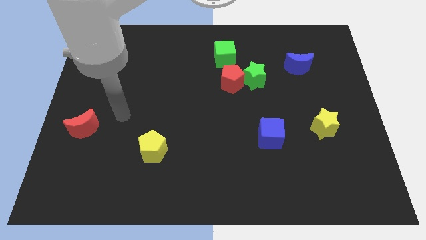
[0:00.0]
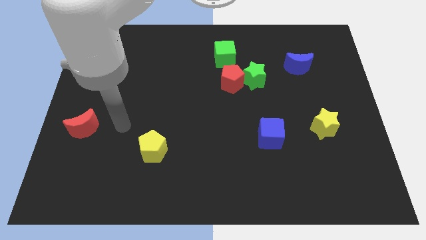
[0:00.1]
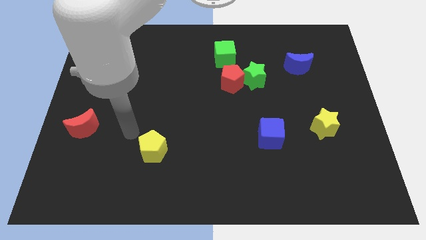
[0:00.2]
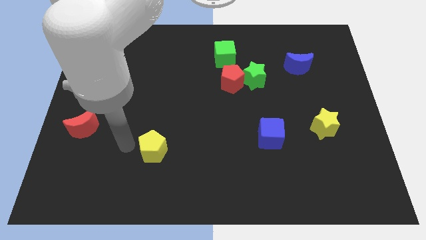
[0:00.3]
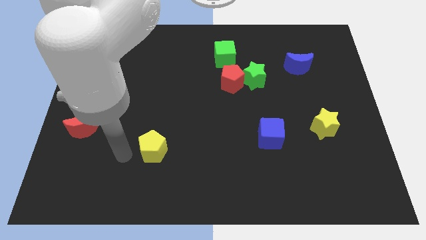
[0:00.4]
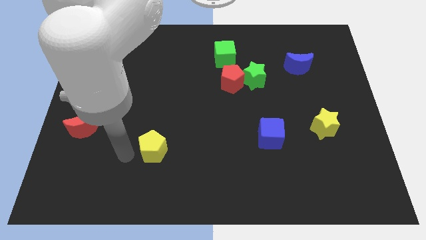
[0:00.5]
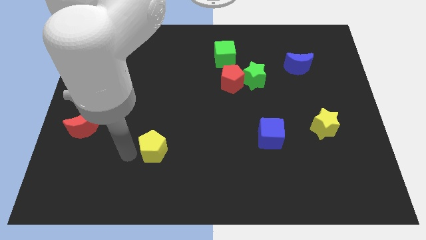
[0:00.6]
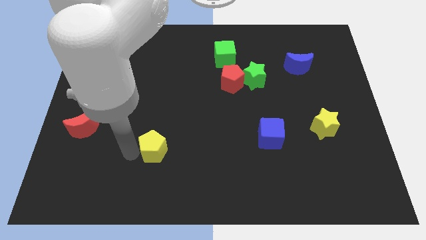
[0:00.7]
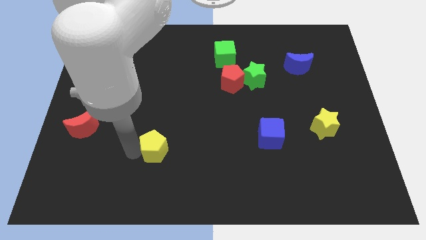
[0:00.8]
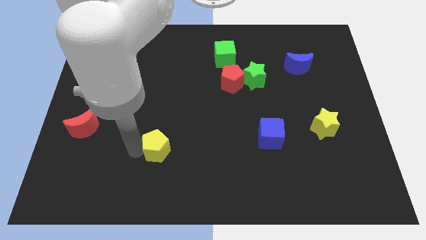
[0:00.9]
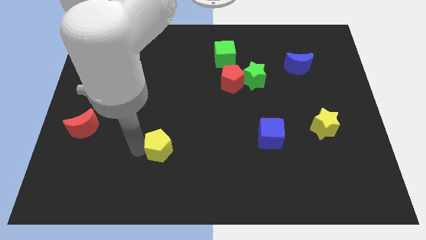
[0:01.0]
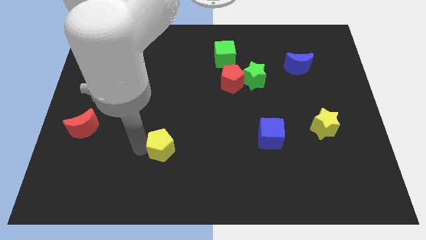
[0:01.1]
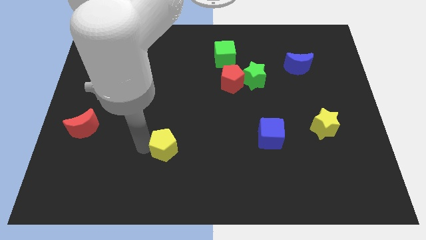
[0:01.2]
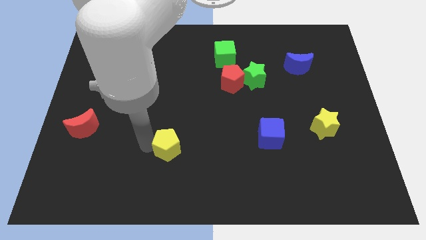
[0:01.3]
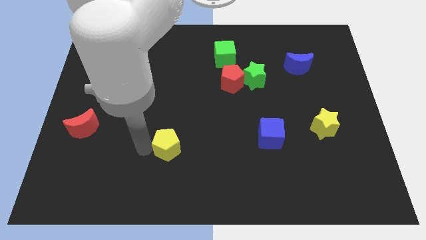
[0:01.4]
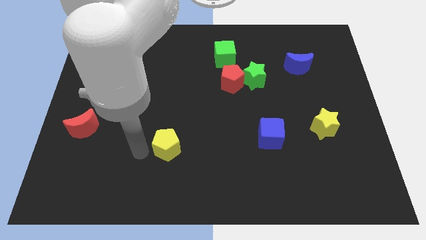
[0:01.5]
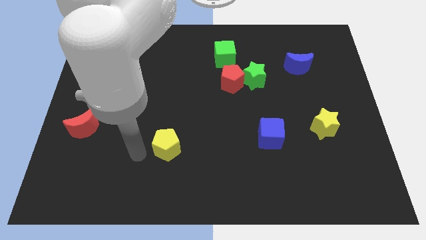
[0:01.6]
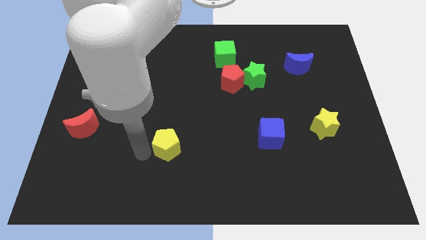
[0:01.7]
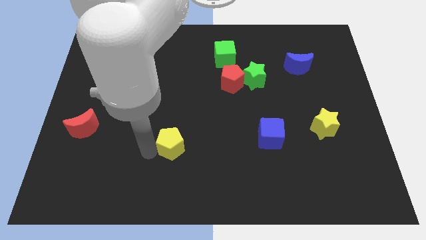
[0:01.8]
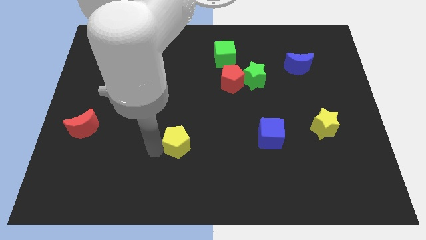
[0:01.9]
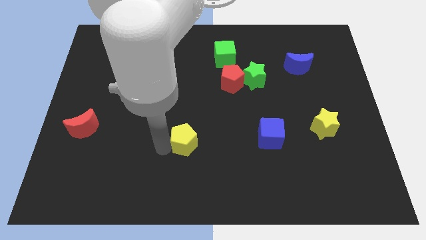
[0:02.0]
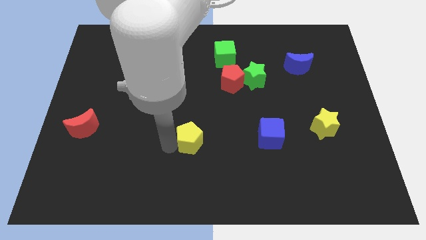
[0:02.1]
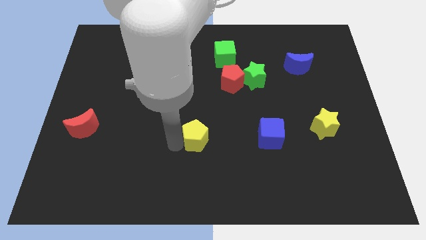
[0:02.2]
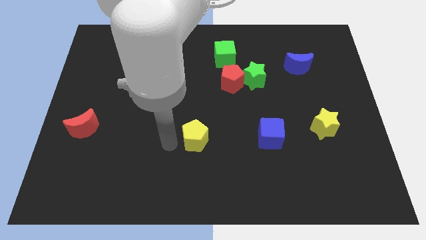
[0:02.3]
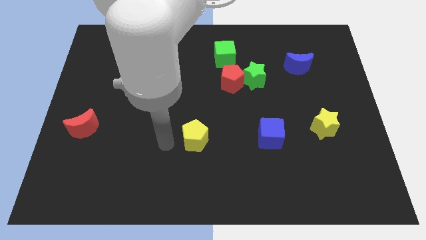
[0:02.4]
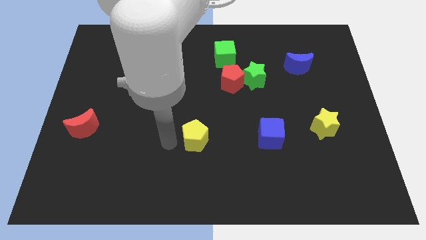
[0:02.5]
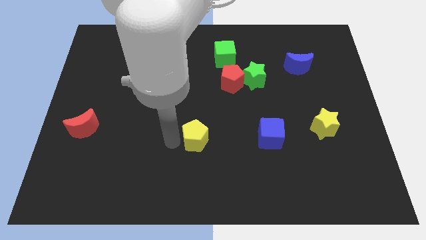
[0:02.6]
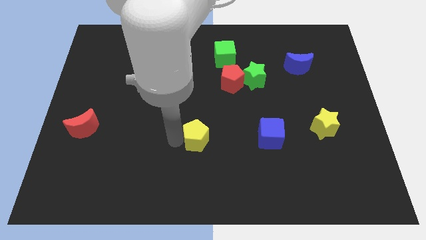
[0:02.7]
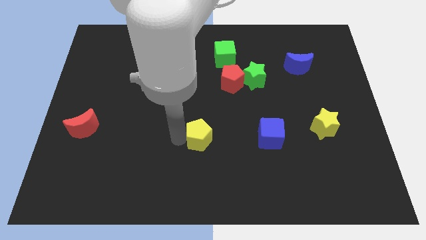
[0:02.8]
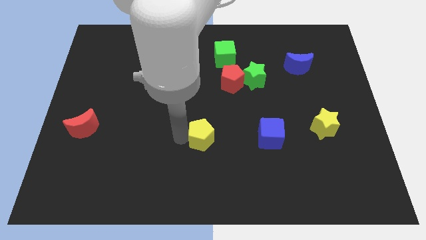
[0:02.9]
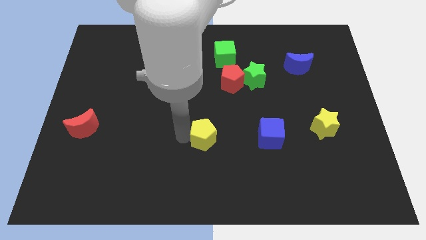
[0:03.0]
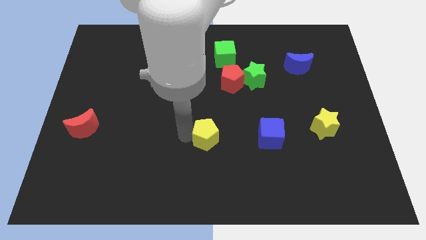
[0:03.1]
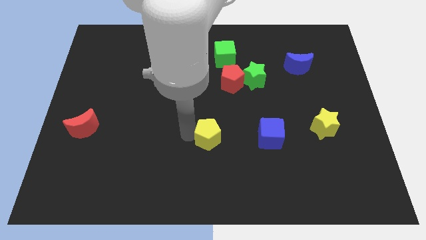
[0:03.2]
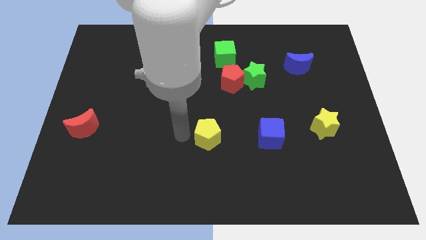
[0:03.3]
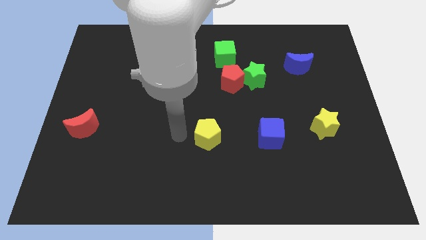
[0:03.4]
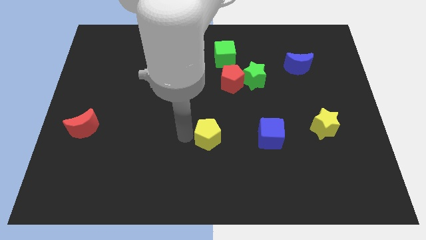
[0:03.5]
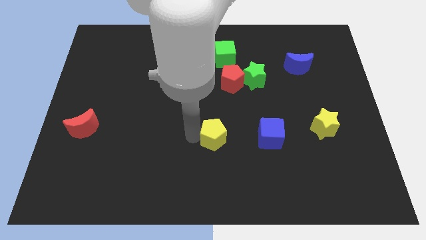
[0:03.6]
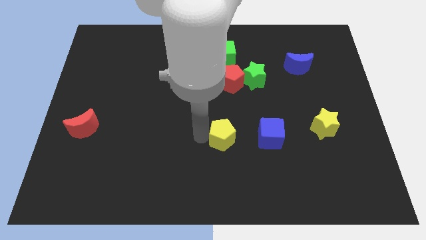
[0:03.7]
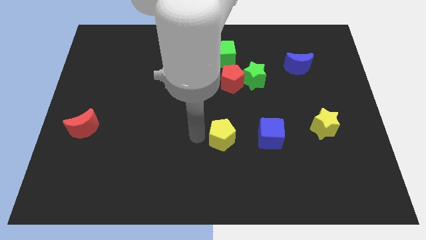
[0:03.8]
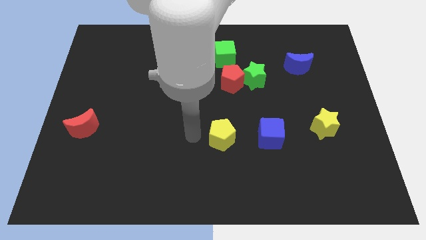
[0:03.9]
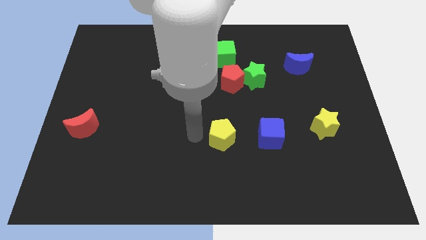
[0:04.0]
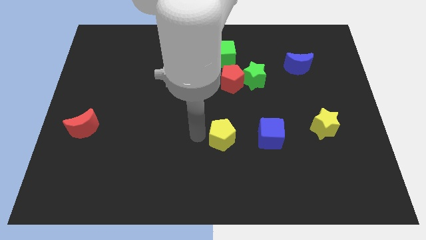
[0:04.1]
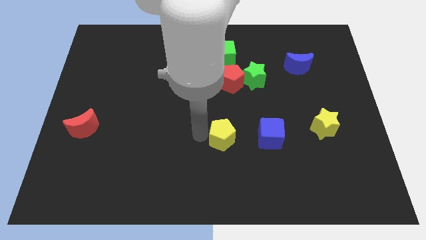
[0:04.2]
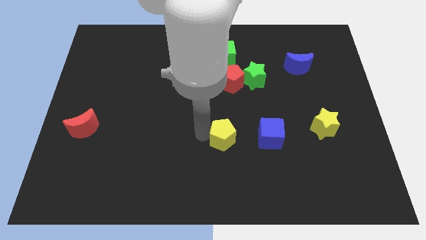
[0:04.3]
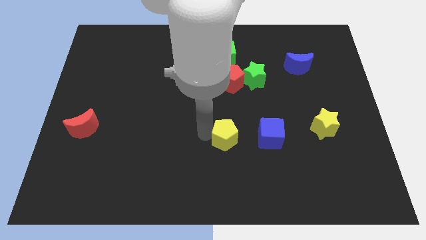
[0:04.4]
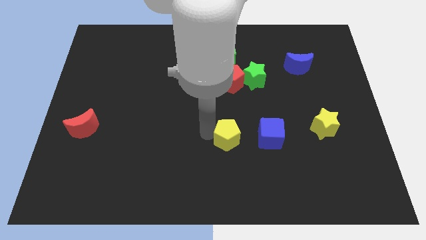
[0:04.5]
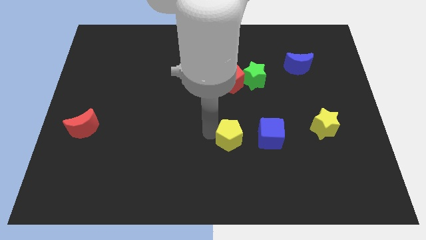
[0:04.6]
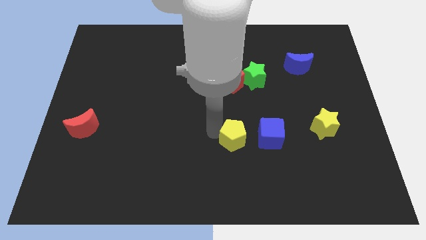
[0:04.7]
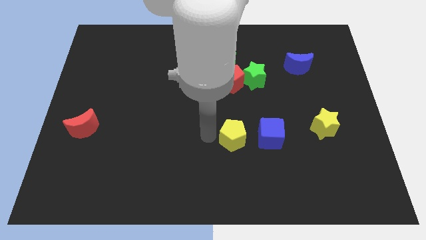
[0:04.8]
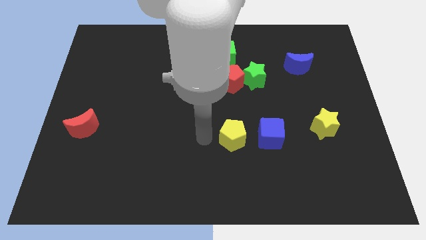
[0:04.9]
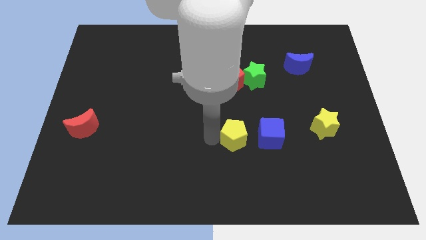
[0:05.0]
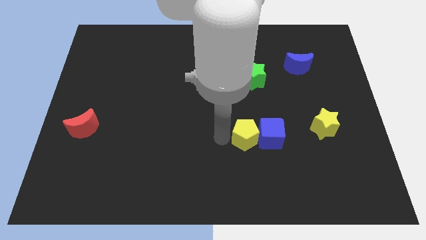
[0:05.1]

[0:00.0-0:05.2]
slide the yellow pentagon towards the blue cube

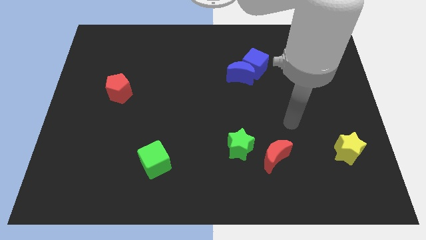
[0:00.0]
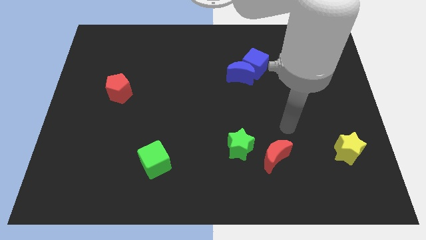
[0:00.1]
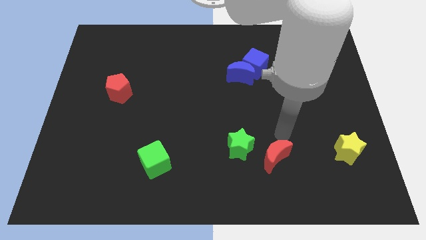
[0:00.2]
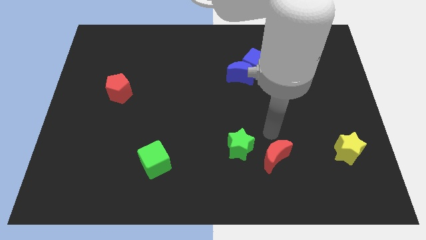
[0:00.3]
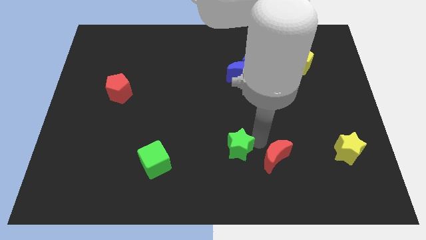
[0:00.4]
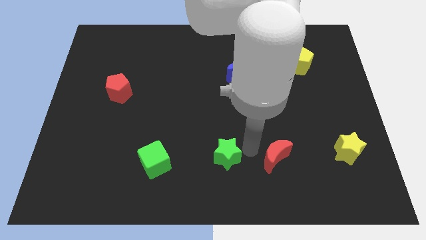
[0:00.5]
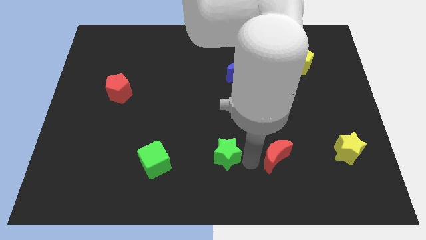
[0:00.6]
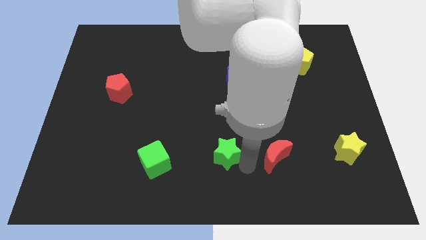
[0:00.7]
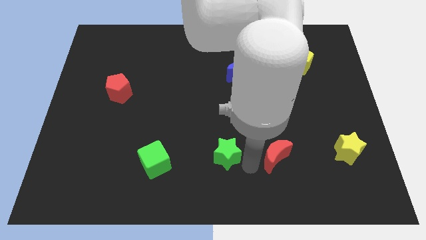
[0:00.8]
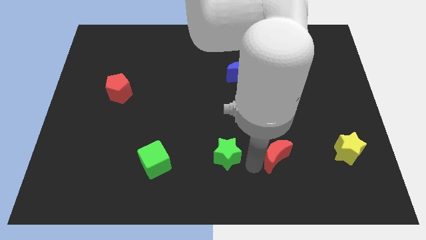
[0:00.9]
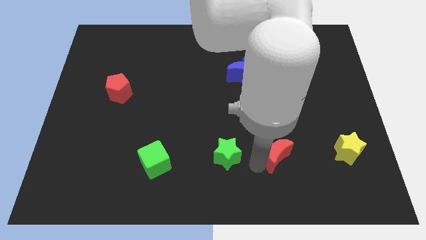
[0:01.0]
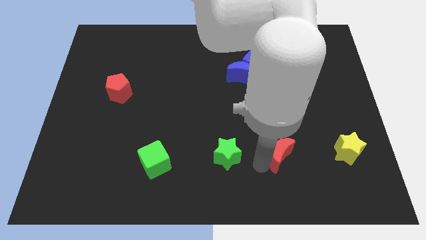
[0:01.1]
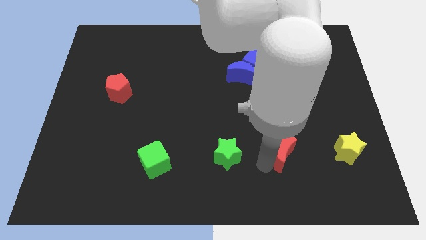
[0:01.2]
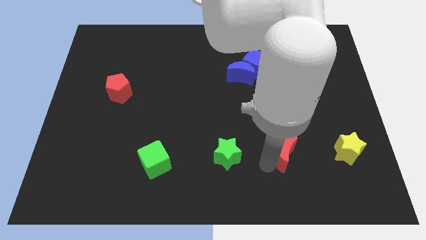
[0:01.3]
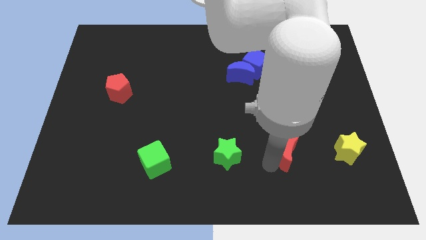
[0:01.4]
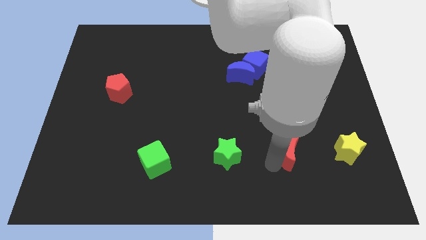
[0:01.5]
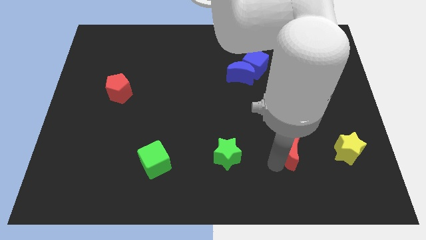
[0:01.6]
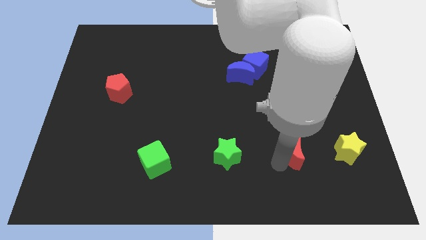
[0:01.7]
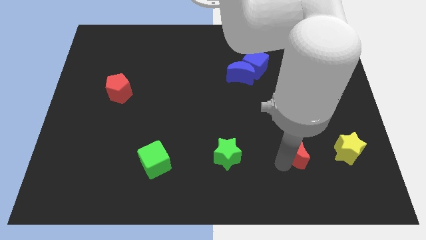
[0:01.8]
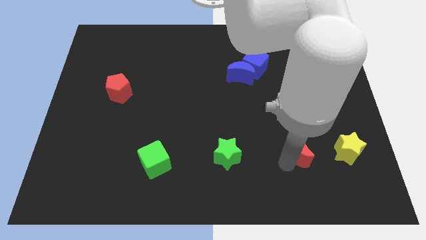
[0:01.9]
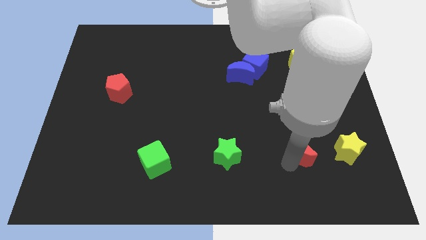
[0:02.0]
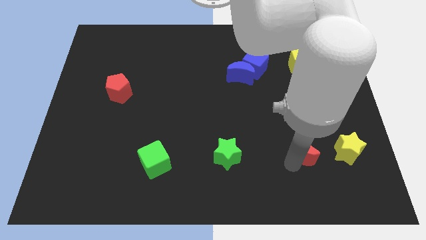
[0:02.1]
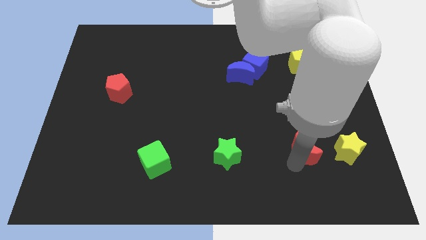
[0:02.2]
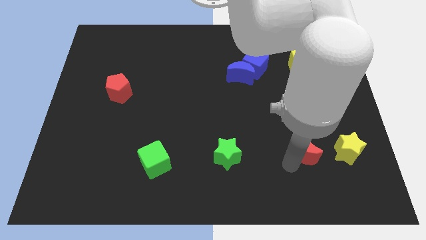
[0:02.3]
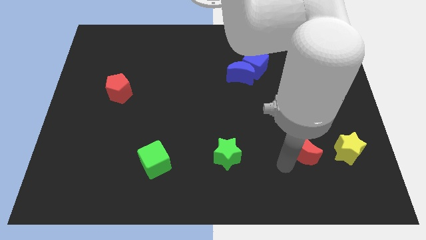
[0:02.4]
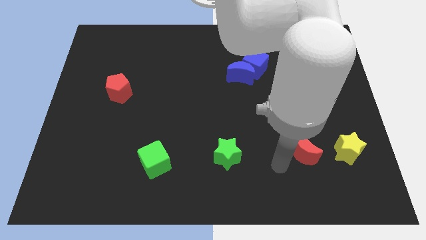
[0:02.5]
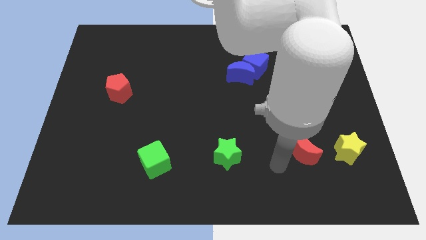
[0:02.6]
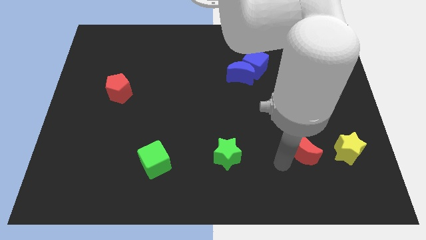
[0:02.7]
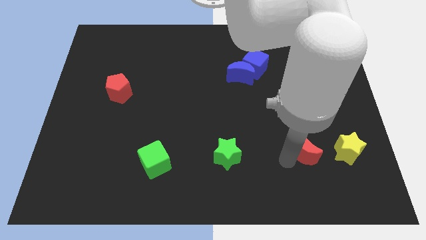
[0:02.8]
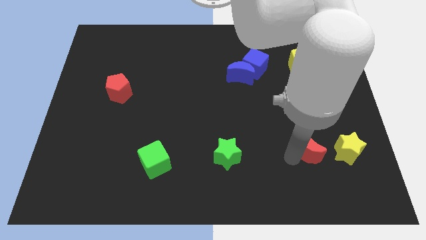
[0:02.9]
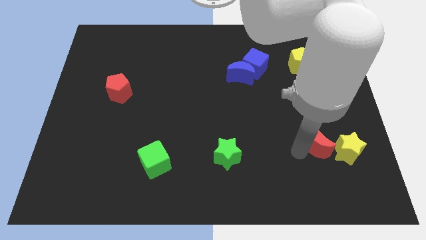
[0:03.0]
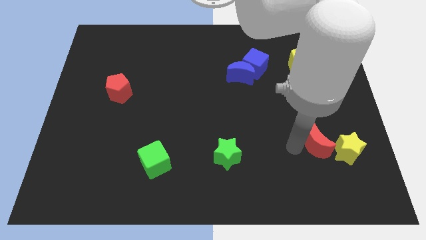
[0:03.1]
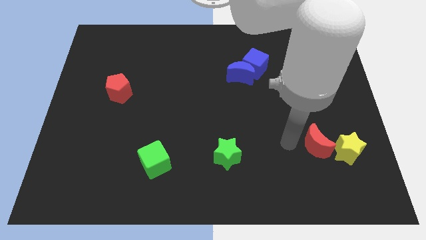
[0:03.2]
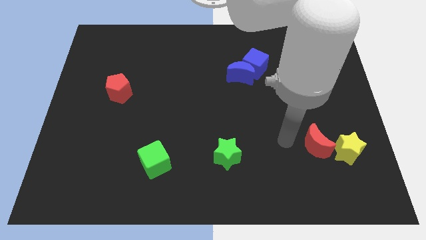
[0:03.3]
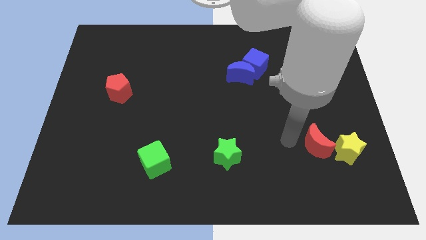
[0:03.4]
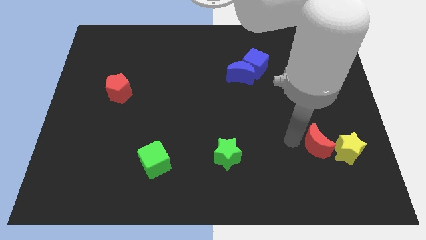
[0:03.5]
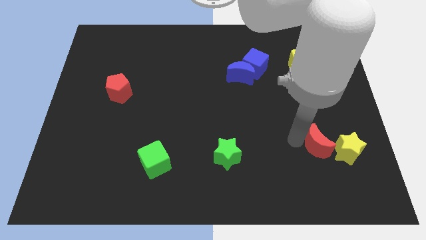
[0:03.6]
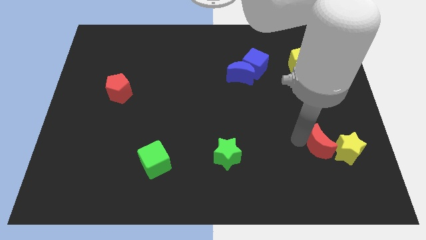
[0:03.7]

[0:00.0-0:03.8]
slide the red moon towards the yellow star
